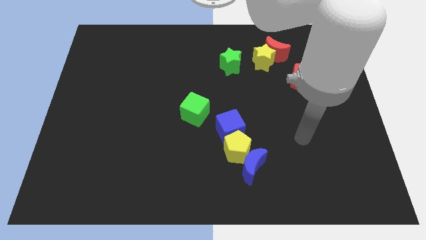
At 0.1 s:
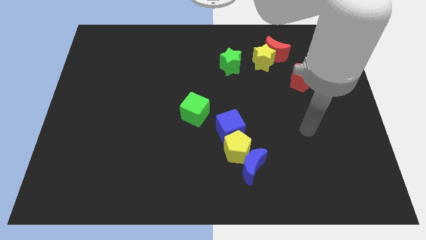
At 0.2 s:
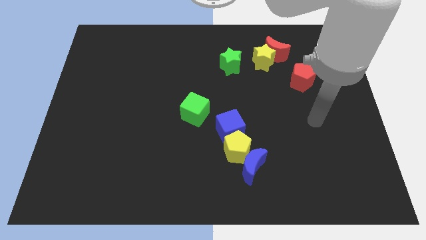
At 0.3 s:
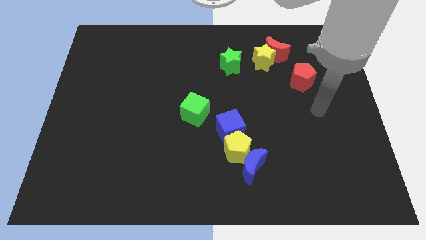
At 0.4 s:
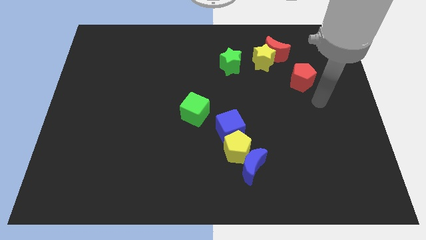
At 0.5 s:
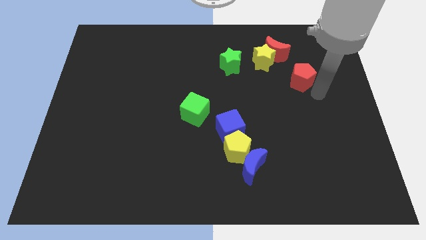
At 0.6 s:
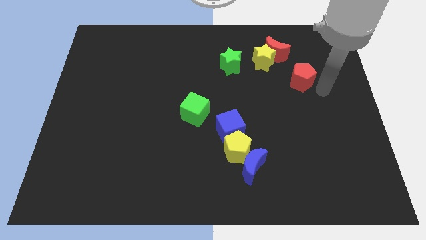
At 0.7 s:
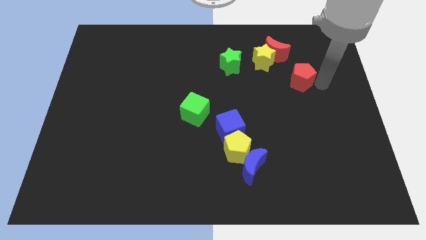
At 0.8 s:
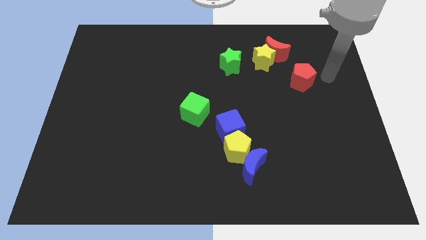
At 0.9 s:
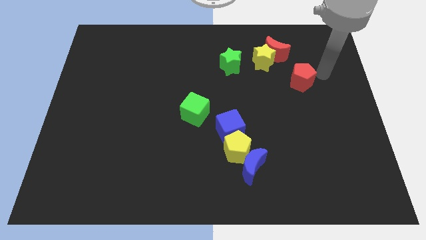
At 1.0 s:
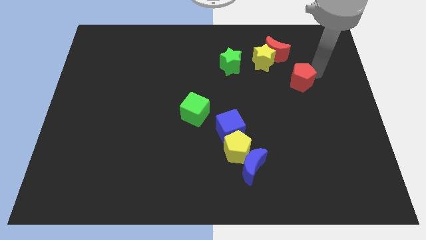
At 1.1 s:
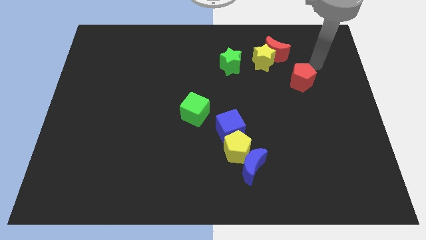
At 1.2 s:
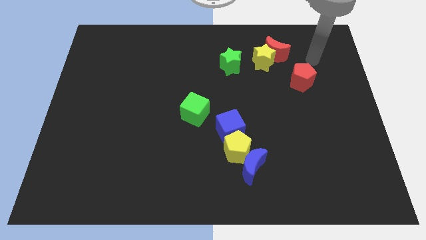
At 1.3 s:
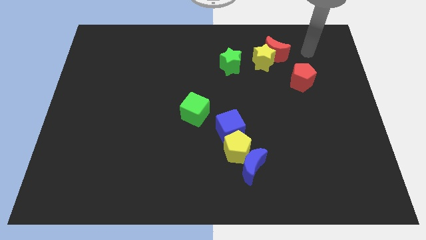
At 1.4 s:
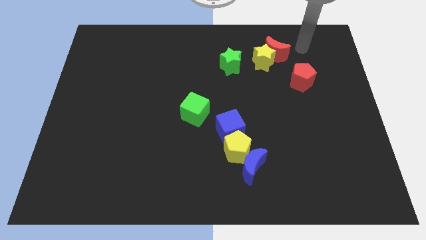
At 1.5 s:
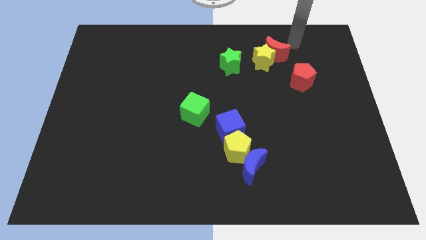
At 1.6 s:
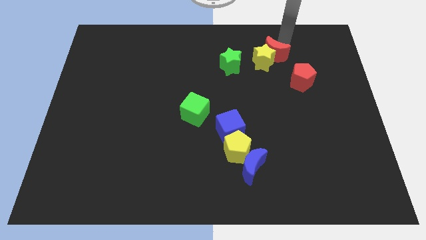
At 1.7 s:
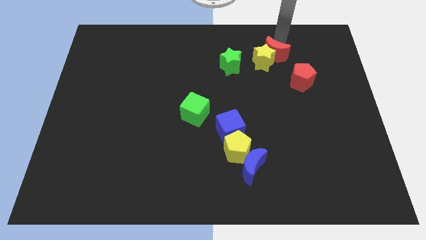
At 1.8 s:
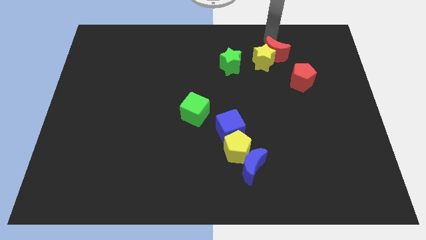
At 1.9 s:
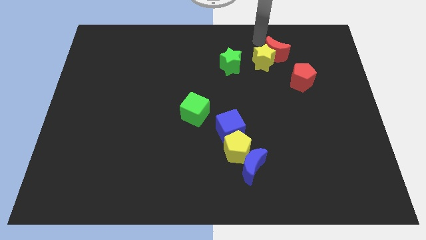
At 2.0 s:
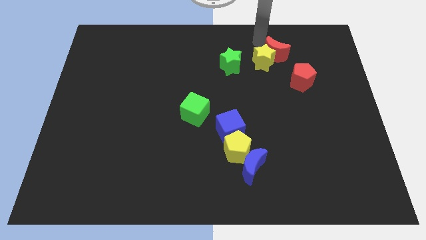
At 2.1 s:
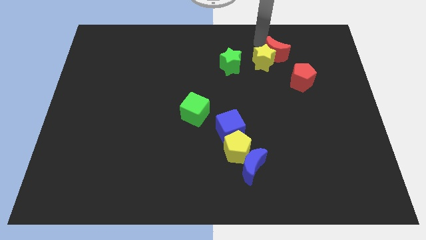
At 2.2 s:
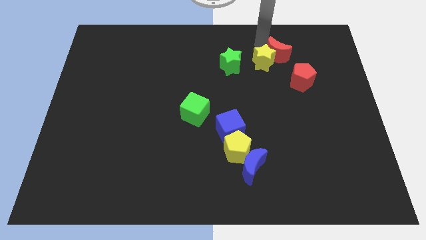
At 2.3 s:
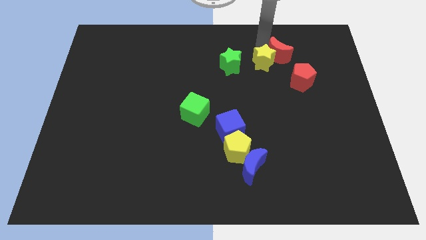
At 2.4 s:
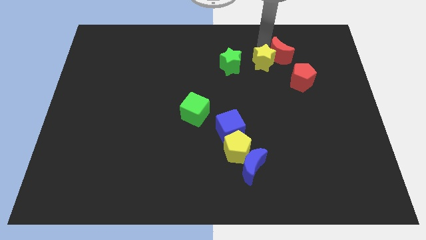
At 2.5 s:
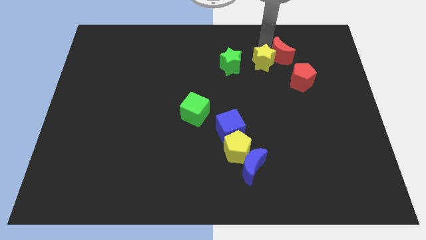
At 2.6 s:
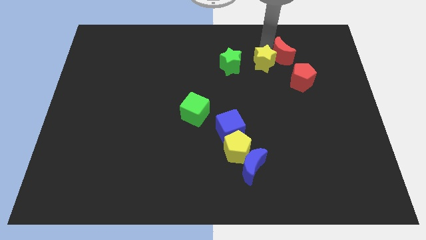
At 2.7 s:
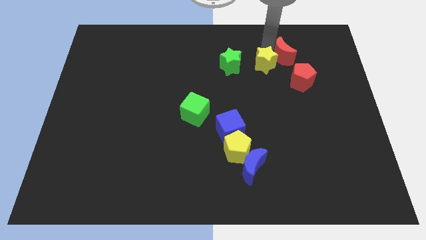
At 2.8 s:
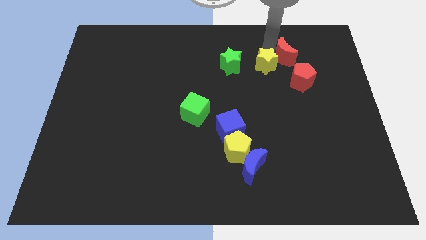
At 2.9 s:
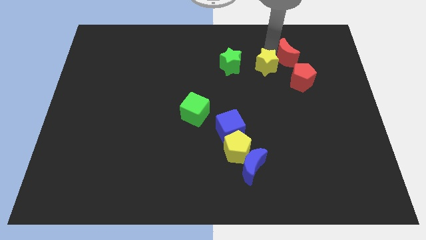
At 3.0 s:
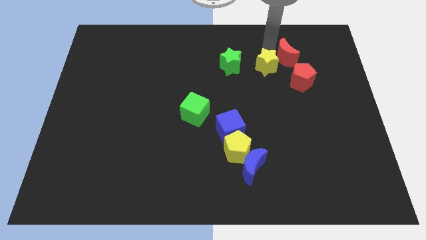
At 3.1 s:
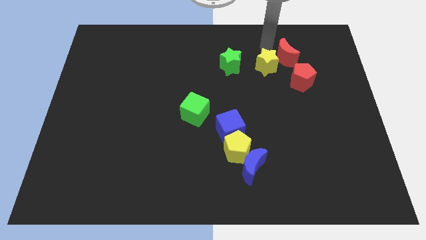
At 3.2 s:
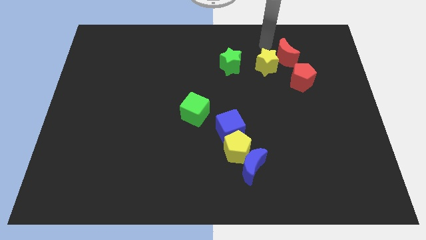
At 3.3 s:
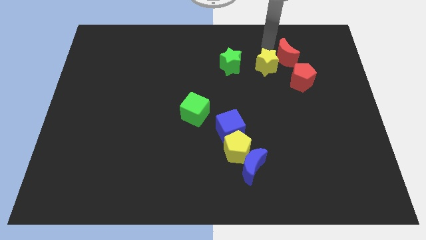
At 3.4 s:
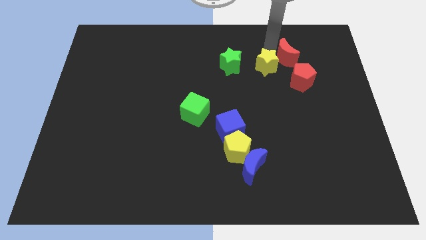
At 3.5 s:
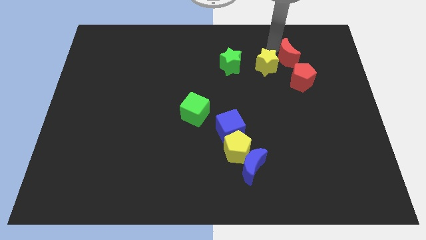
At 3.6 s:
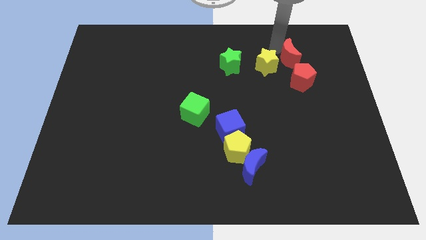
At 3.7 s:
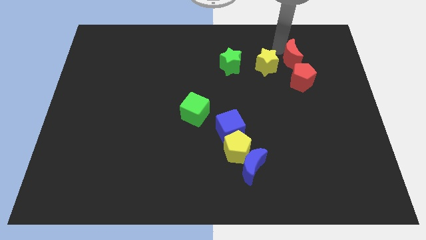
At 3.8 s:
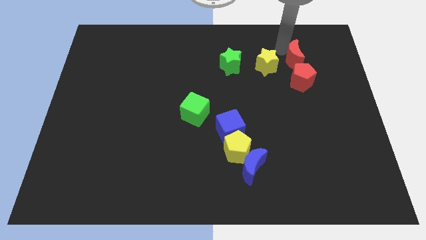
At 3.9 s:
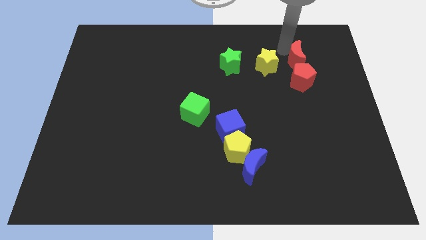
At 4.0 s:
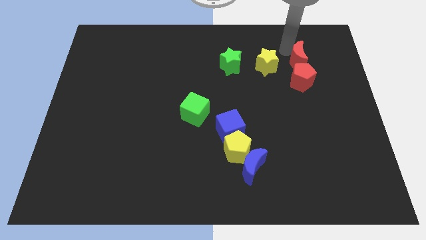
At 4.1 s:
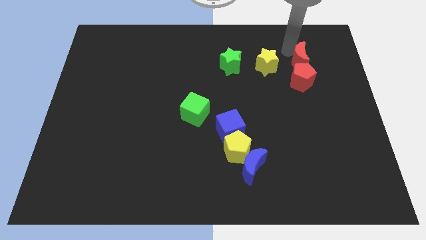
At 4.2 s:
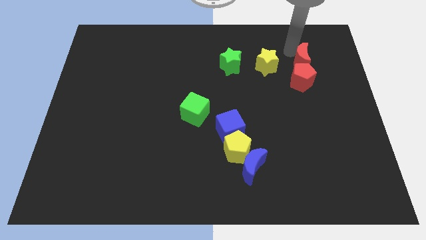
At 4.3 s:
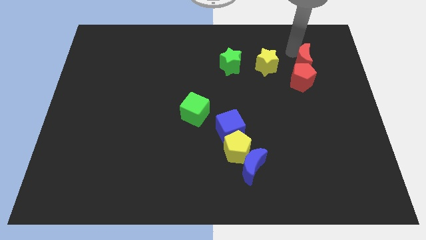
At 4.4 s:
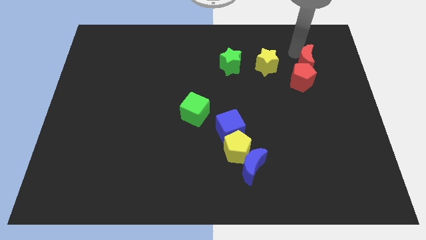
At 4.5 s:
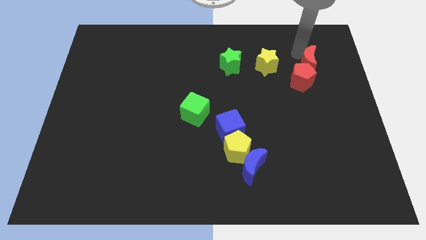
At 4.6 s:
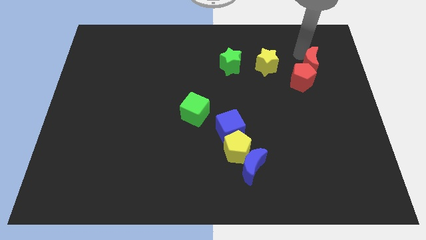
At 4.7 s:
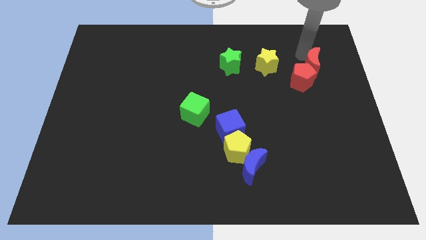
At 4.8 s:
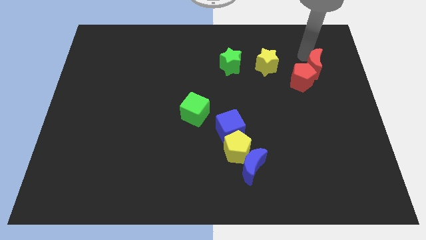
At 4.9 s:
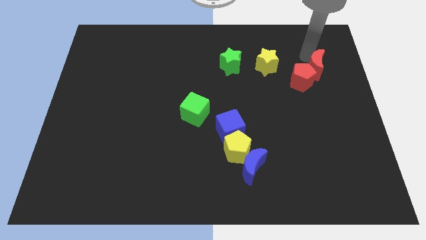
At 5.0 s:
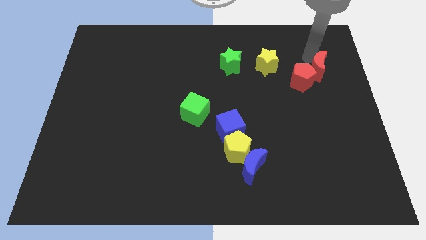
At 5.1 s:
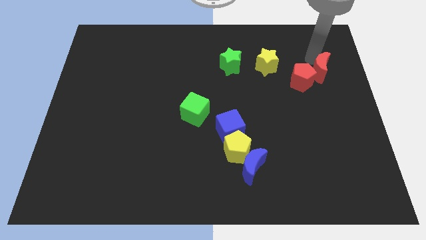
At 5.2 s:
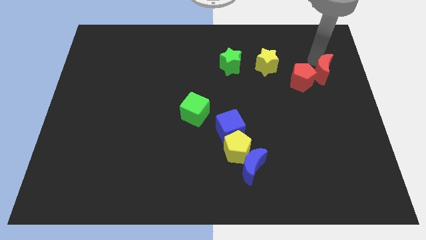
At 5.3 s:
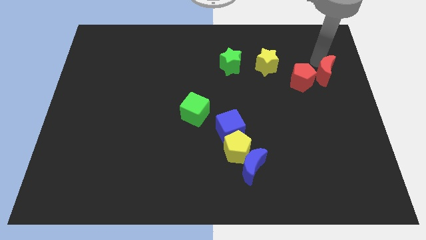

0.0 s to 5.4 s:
slide the red moon to the right side of the board

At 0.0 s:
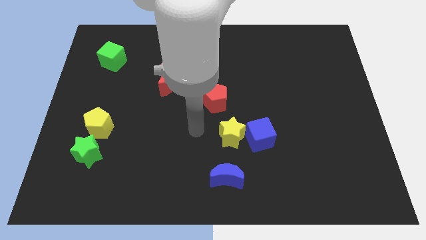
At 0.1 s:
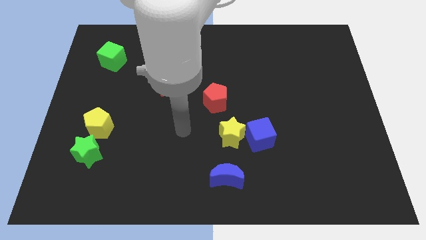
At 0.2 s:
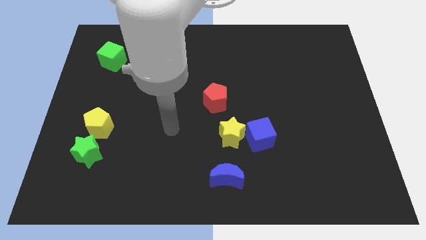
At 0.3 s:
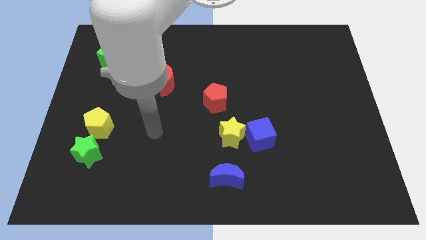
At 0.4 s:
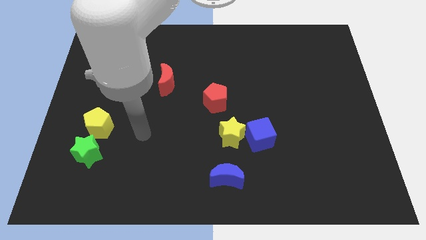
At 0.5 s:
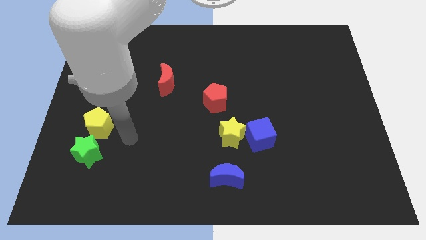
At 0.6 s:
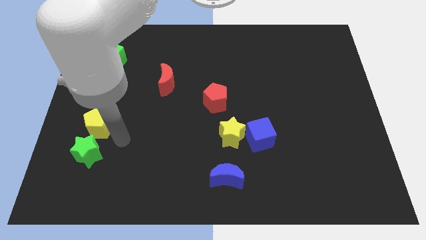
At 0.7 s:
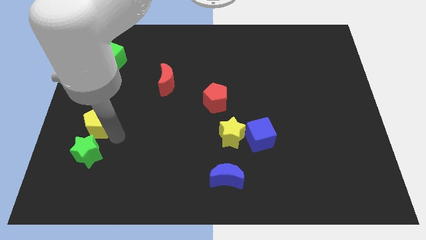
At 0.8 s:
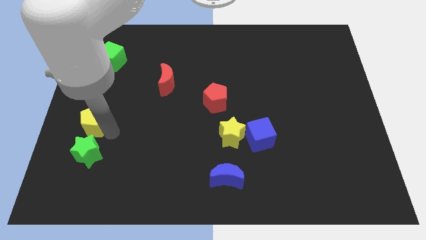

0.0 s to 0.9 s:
put the yellow pentagon to the left side of the board
